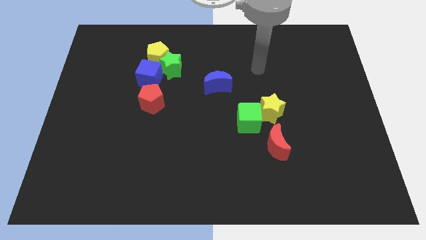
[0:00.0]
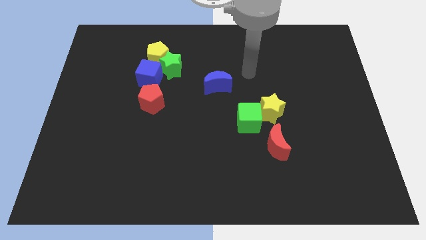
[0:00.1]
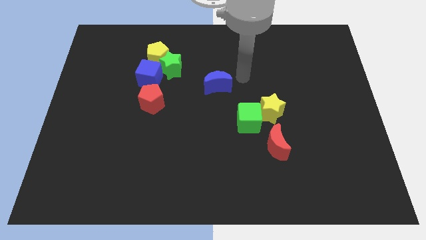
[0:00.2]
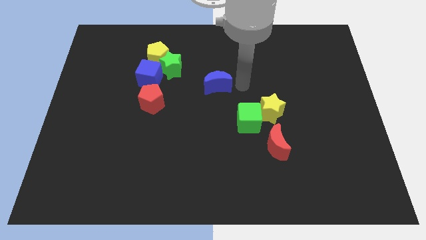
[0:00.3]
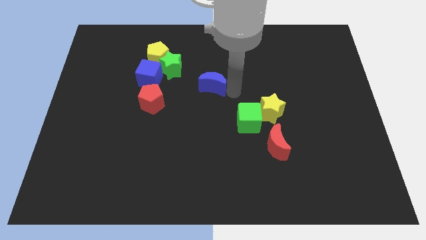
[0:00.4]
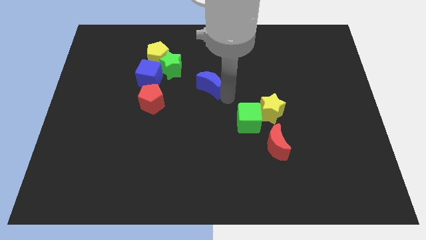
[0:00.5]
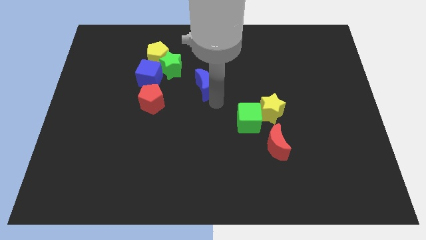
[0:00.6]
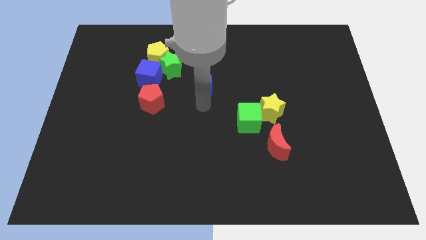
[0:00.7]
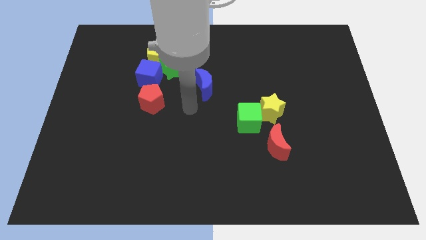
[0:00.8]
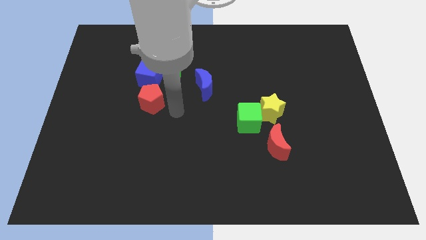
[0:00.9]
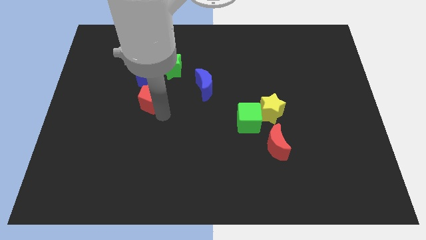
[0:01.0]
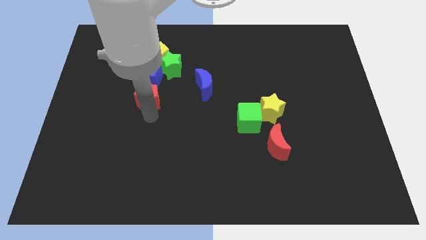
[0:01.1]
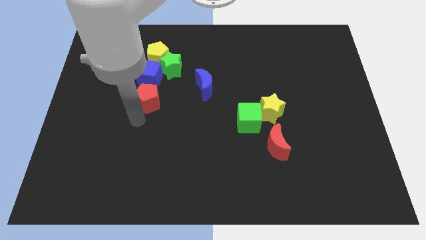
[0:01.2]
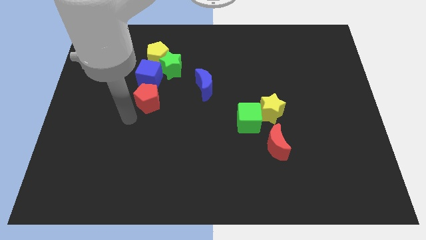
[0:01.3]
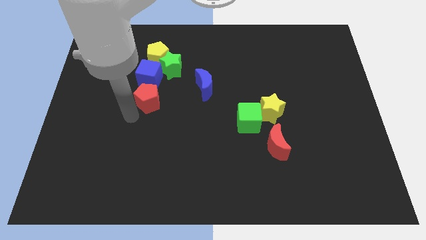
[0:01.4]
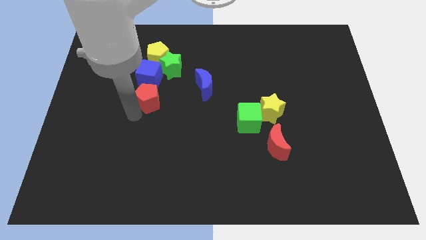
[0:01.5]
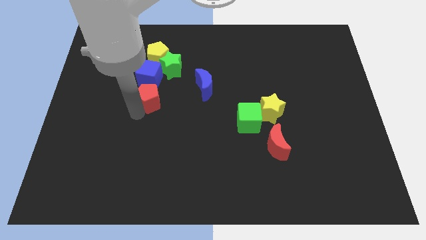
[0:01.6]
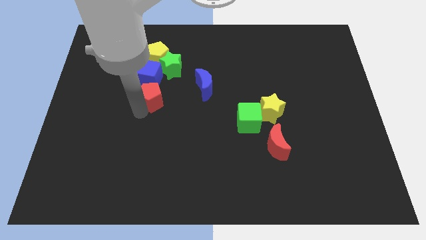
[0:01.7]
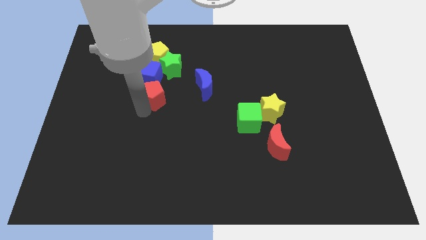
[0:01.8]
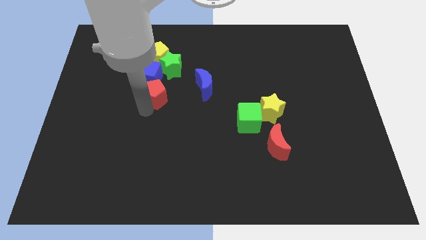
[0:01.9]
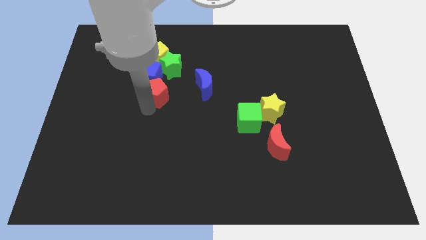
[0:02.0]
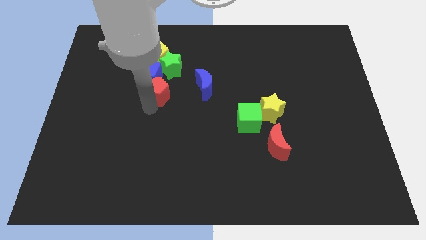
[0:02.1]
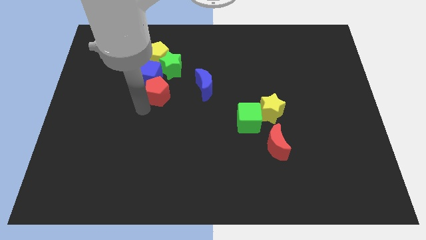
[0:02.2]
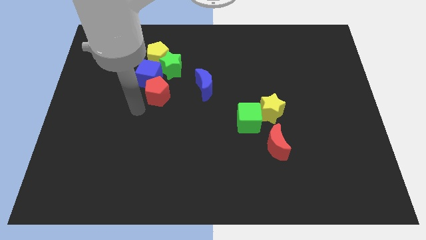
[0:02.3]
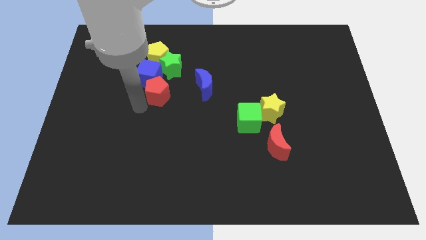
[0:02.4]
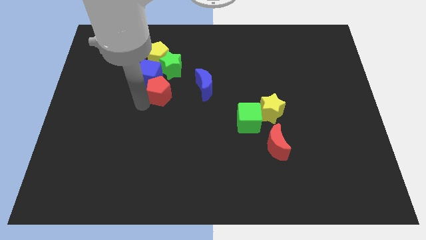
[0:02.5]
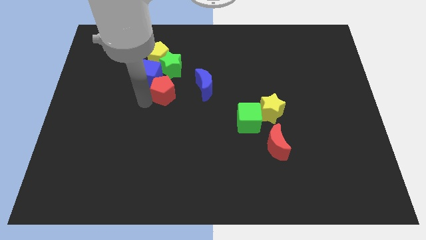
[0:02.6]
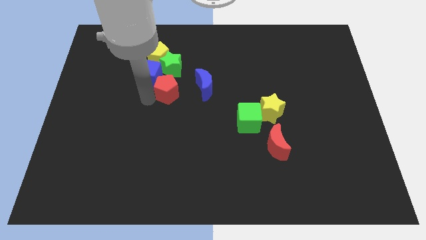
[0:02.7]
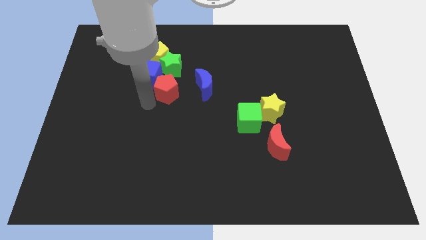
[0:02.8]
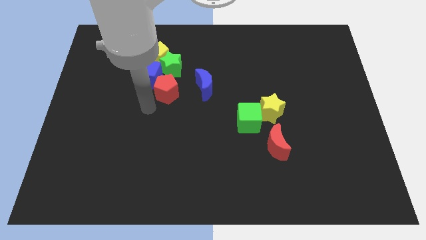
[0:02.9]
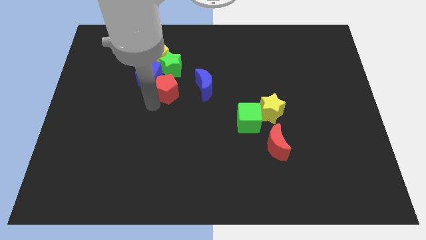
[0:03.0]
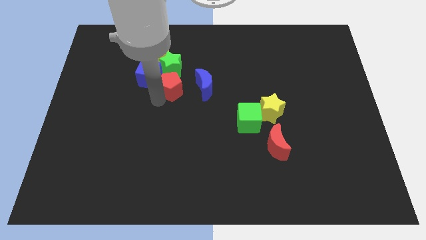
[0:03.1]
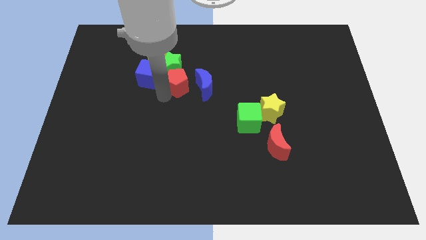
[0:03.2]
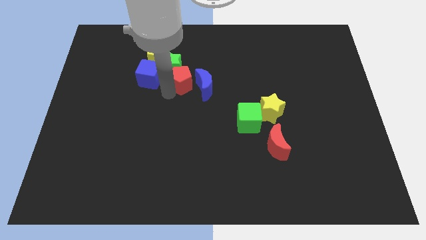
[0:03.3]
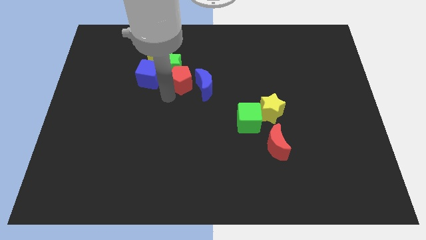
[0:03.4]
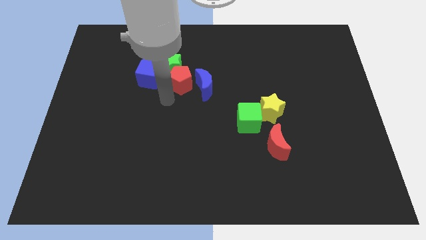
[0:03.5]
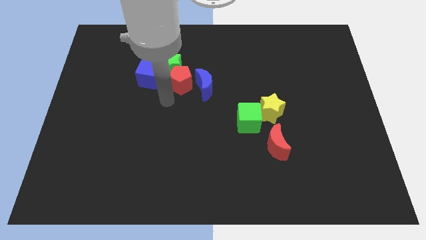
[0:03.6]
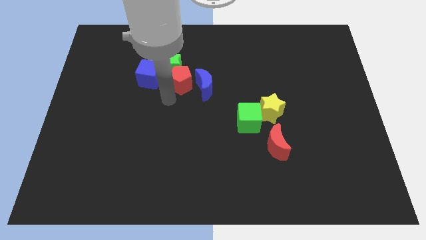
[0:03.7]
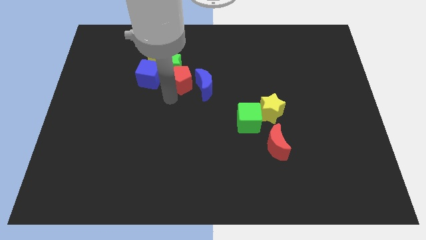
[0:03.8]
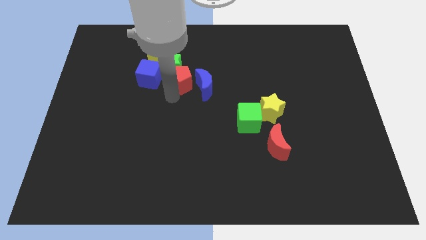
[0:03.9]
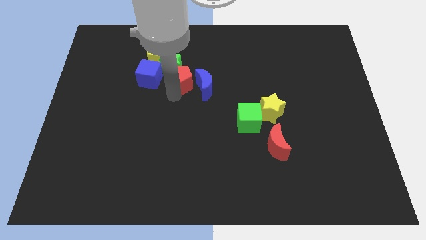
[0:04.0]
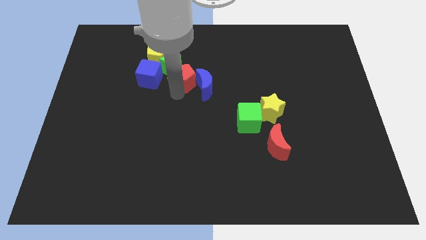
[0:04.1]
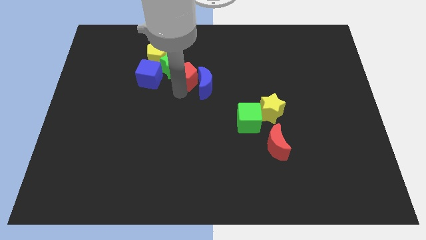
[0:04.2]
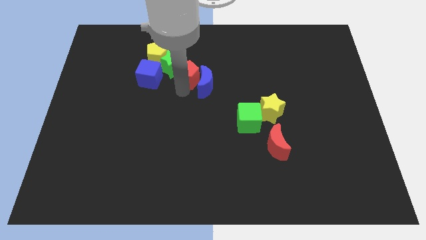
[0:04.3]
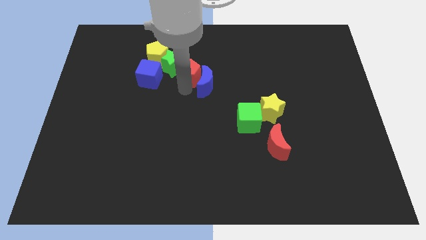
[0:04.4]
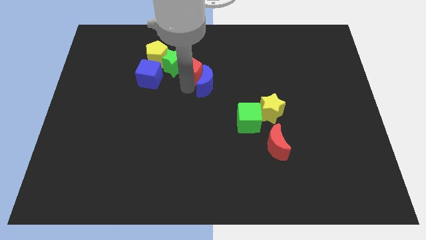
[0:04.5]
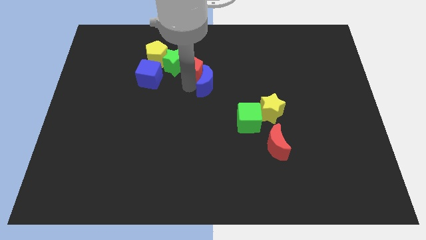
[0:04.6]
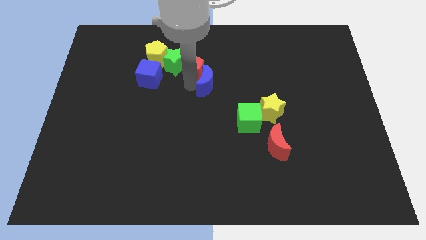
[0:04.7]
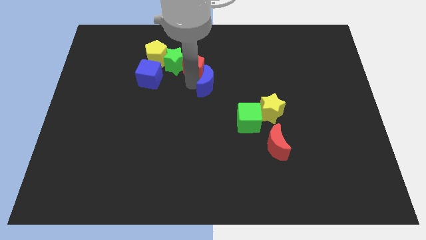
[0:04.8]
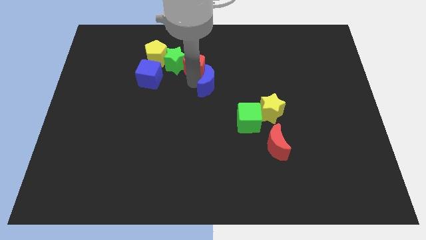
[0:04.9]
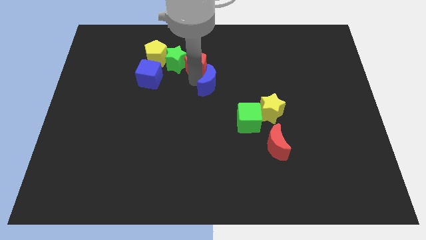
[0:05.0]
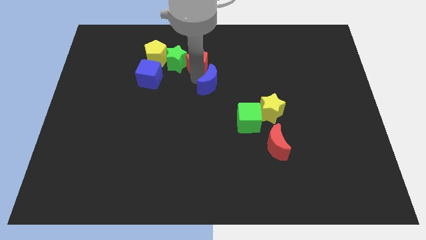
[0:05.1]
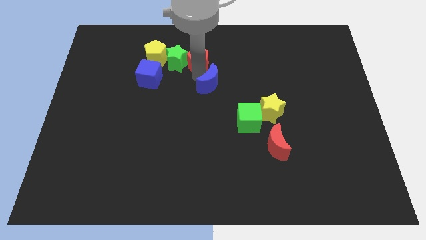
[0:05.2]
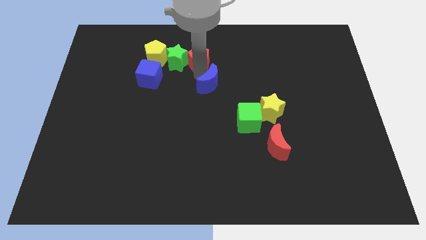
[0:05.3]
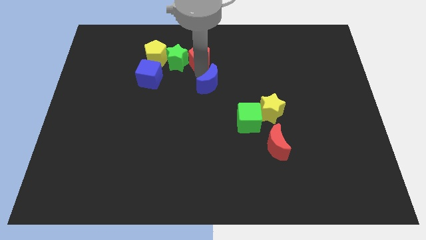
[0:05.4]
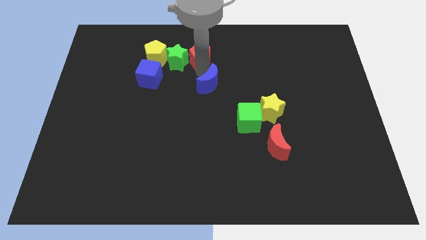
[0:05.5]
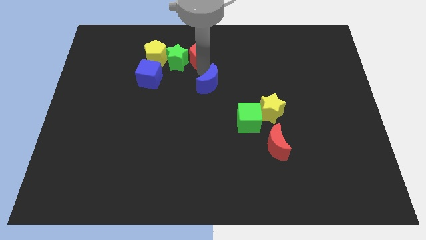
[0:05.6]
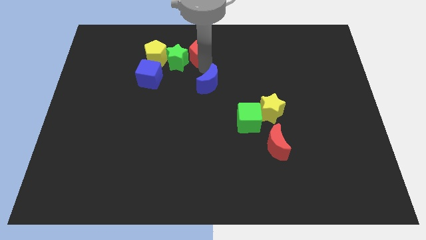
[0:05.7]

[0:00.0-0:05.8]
move the red pentagon to the top
